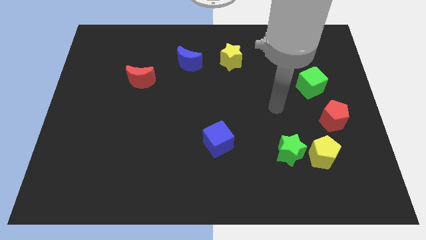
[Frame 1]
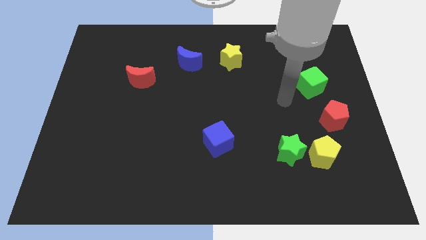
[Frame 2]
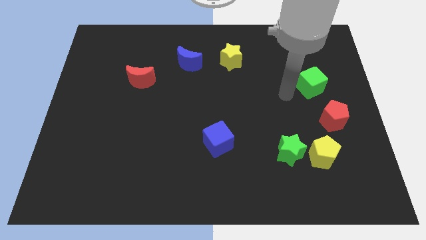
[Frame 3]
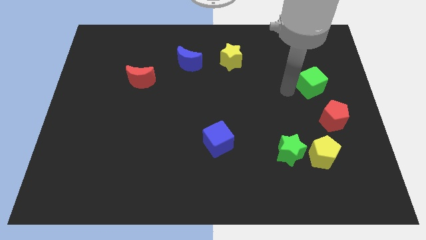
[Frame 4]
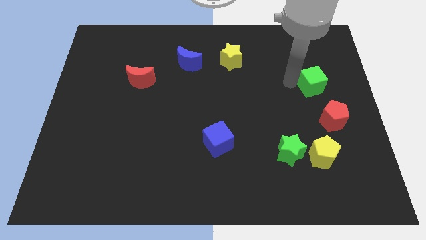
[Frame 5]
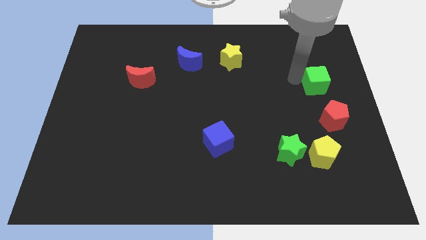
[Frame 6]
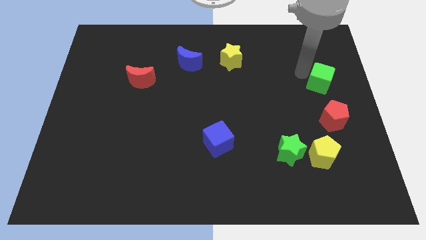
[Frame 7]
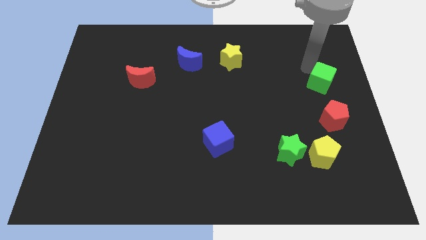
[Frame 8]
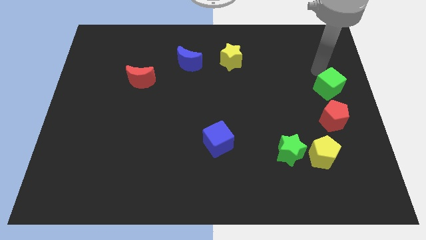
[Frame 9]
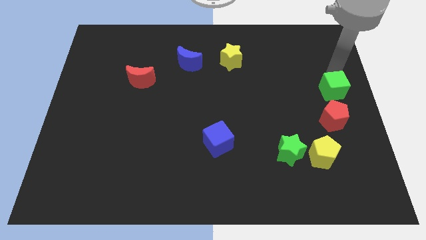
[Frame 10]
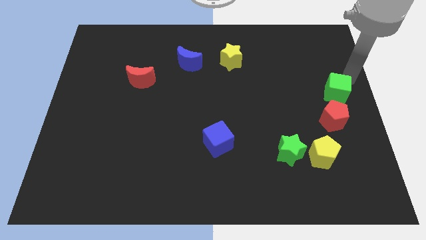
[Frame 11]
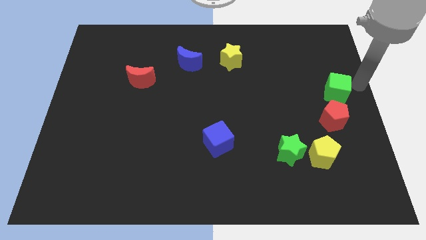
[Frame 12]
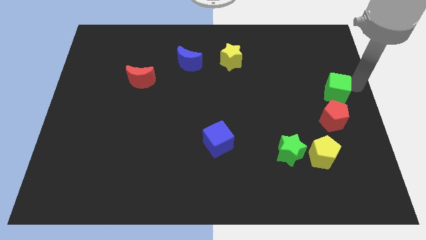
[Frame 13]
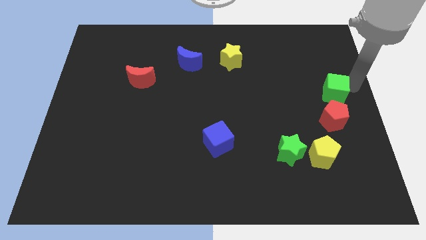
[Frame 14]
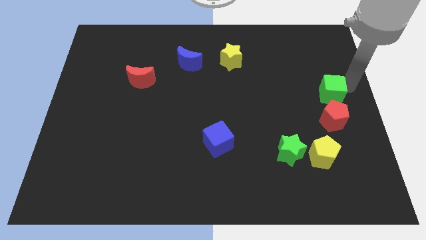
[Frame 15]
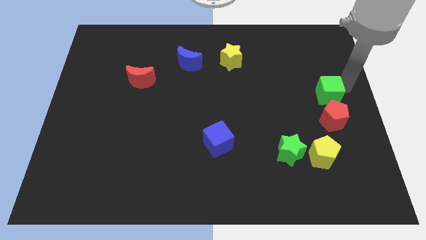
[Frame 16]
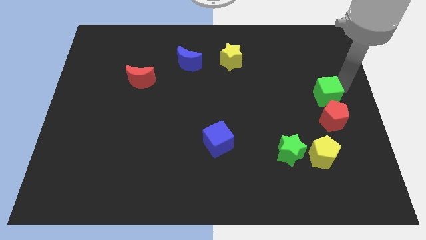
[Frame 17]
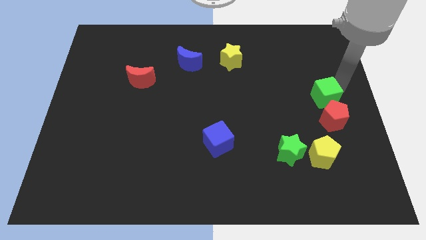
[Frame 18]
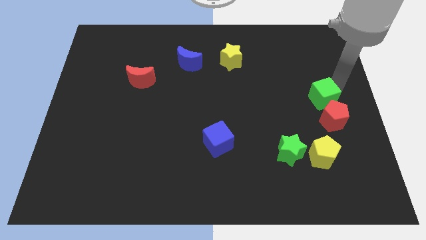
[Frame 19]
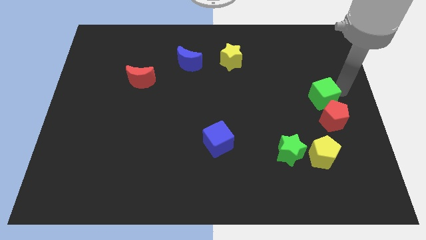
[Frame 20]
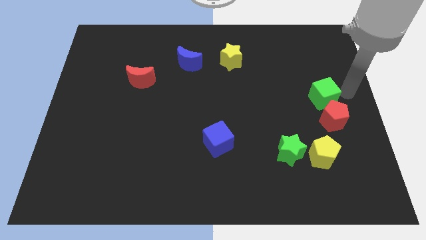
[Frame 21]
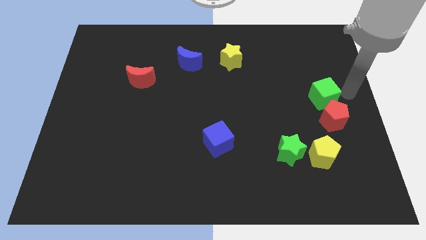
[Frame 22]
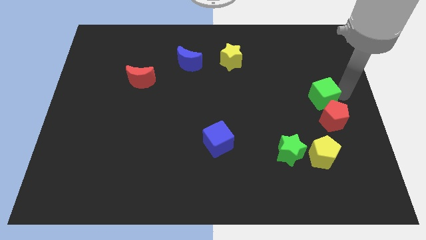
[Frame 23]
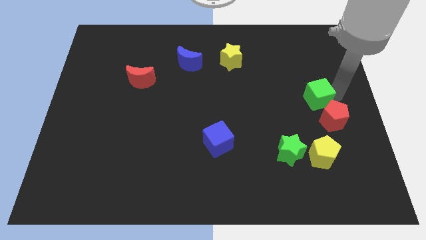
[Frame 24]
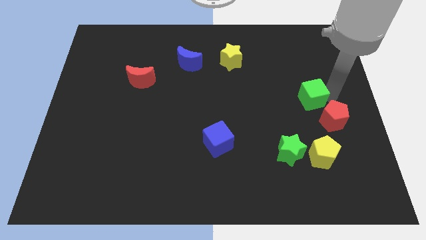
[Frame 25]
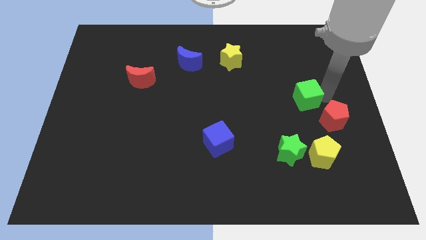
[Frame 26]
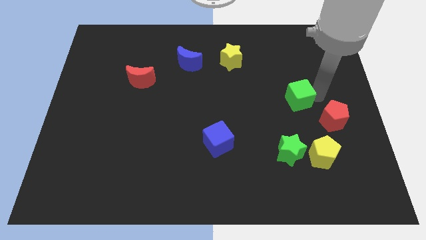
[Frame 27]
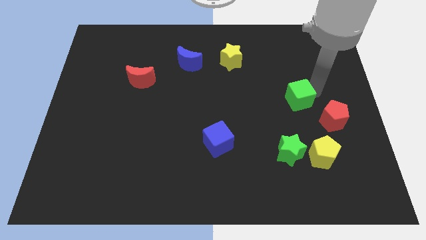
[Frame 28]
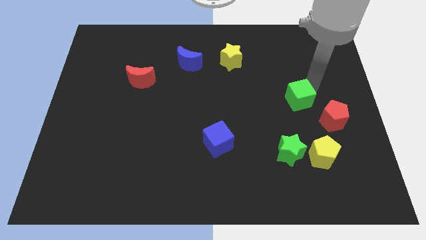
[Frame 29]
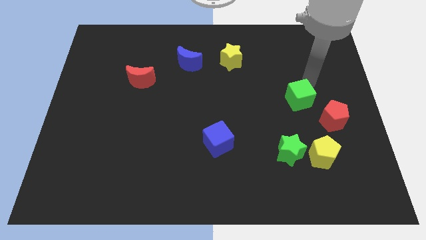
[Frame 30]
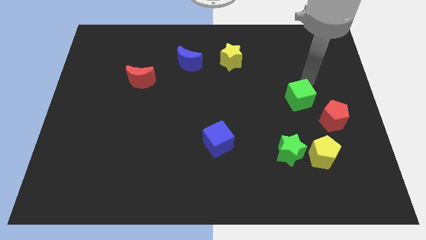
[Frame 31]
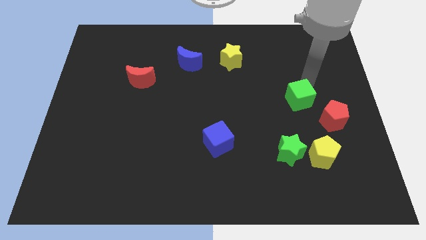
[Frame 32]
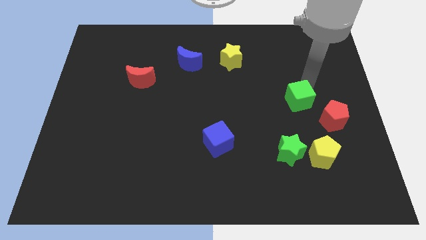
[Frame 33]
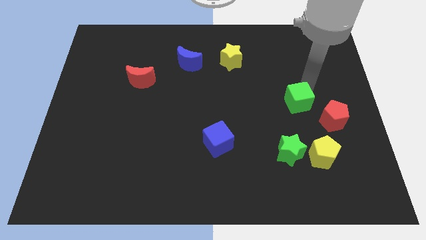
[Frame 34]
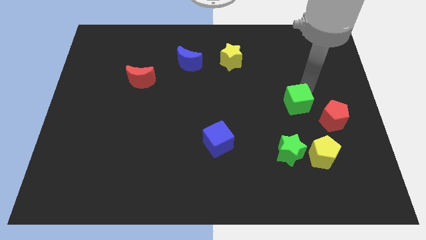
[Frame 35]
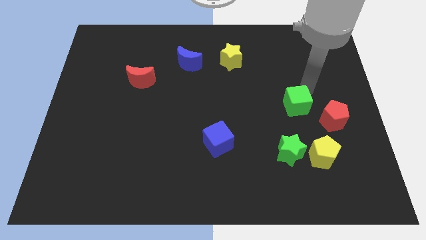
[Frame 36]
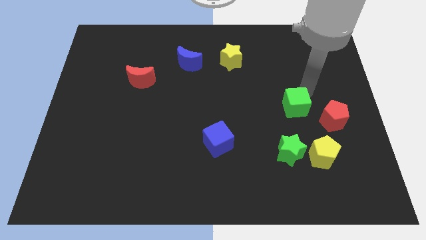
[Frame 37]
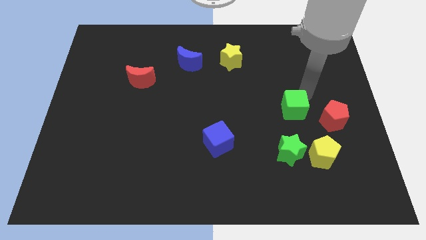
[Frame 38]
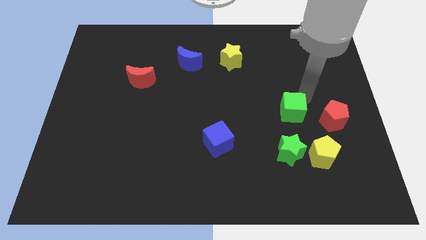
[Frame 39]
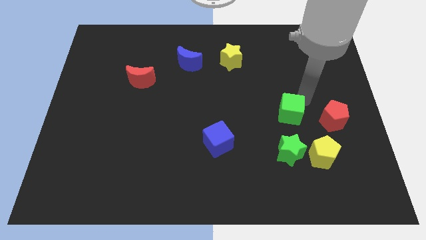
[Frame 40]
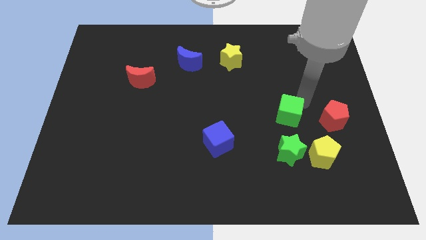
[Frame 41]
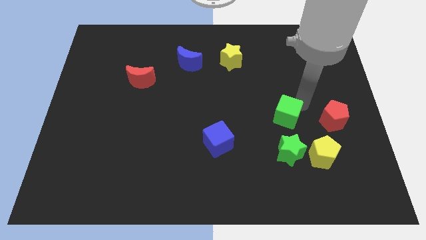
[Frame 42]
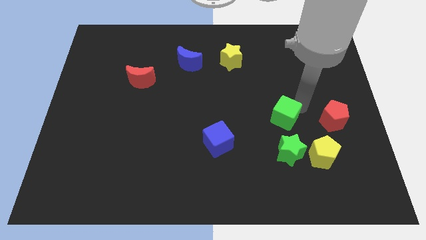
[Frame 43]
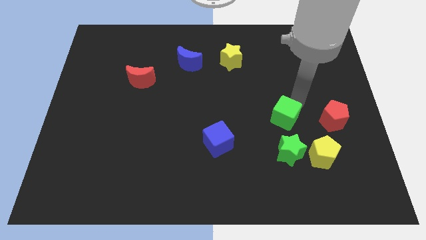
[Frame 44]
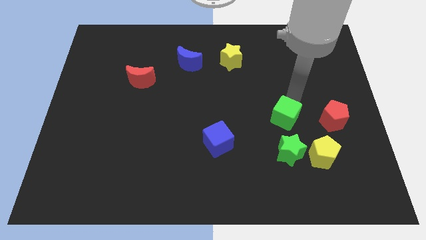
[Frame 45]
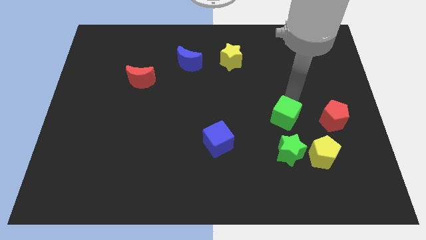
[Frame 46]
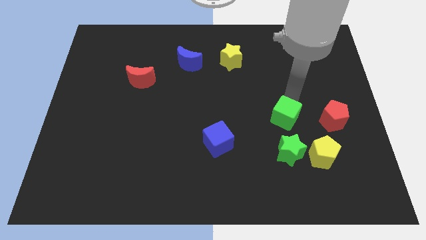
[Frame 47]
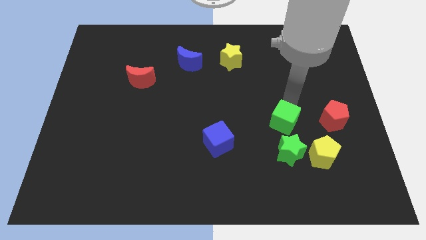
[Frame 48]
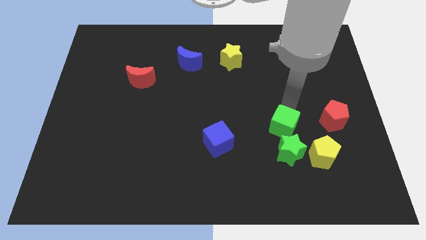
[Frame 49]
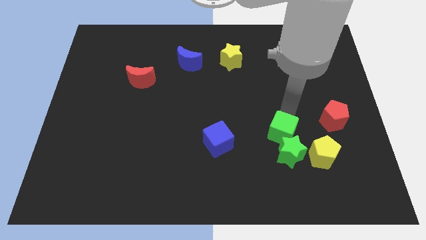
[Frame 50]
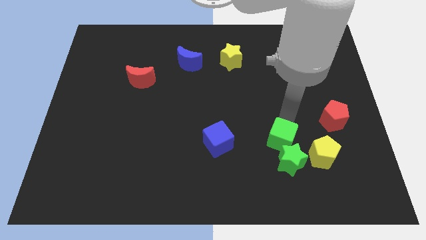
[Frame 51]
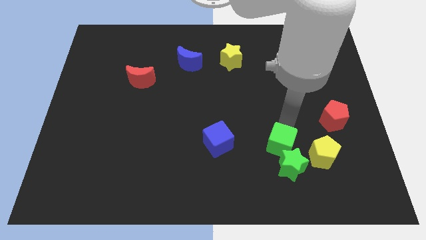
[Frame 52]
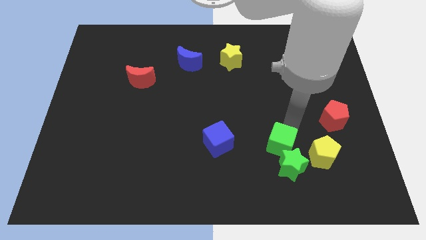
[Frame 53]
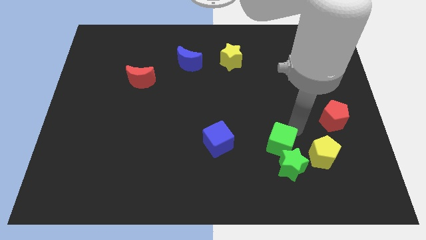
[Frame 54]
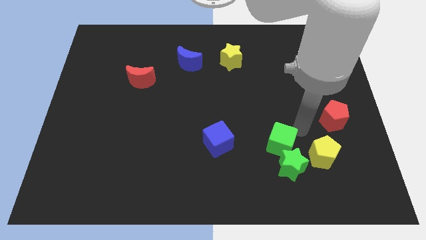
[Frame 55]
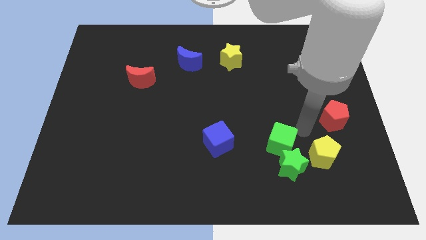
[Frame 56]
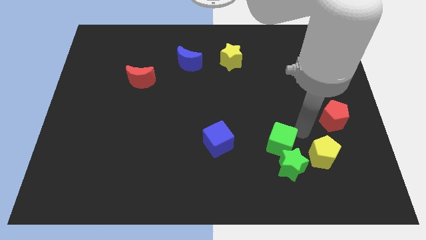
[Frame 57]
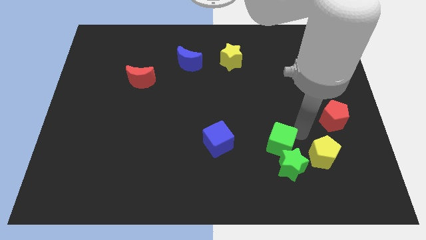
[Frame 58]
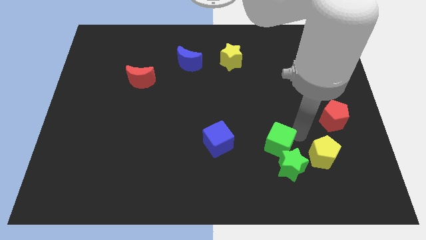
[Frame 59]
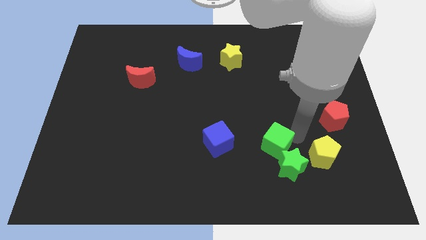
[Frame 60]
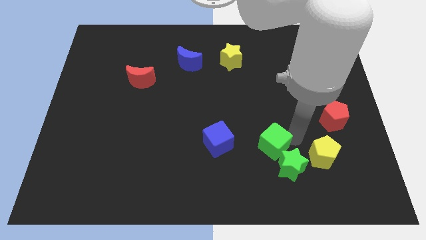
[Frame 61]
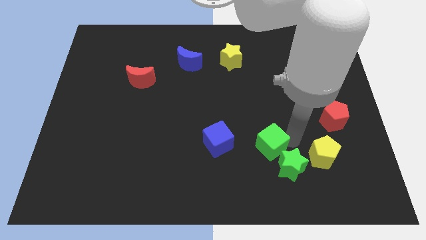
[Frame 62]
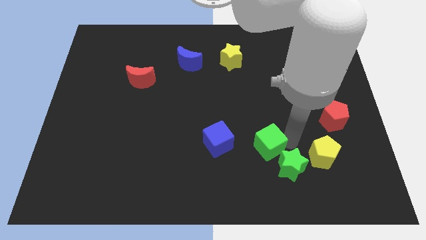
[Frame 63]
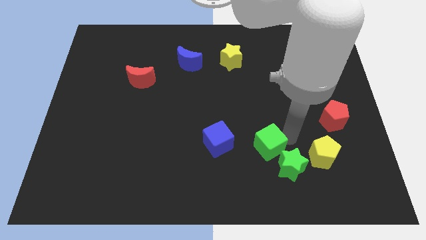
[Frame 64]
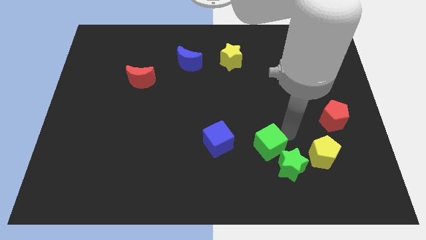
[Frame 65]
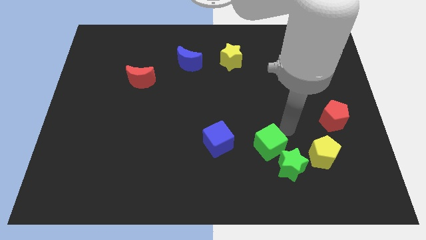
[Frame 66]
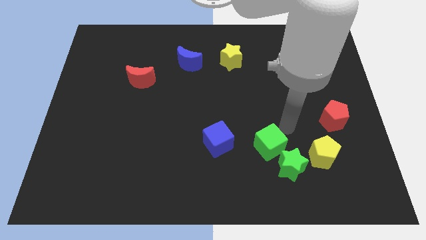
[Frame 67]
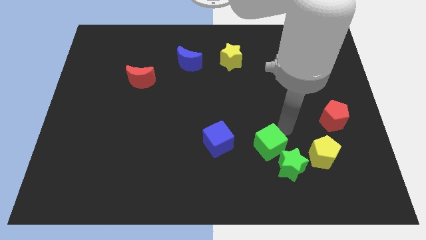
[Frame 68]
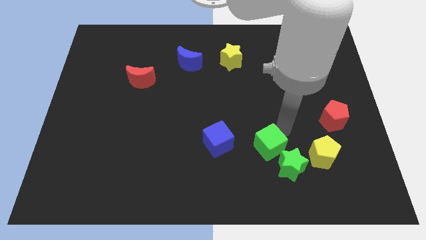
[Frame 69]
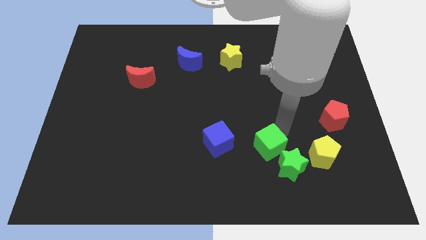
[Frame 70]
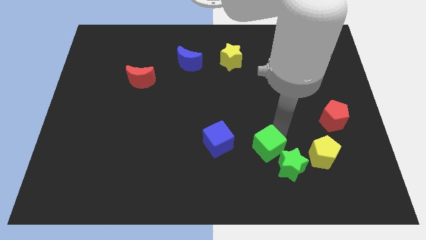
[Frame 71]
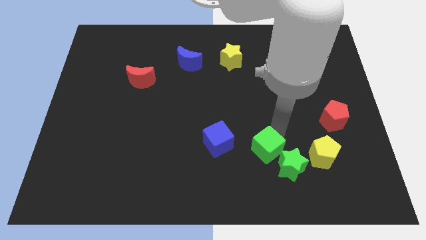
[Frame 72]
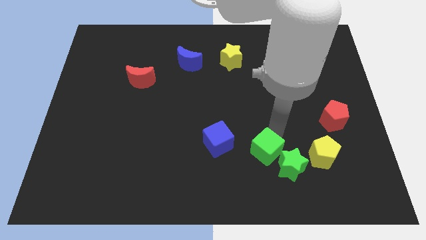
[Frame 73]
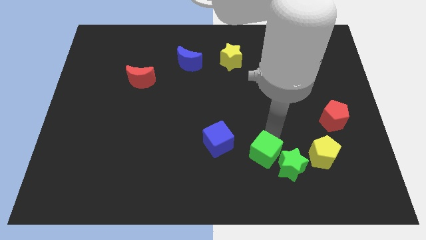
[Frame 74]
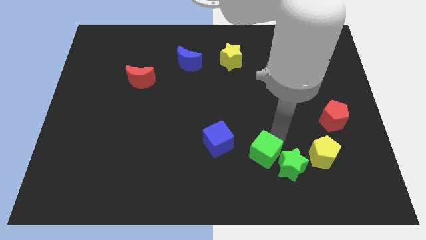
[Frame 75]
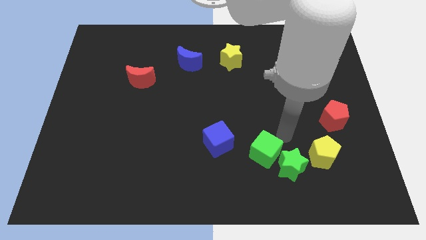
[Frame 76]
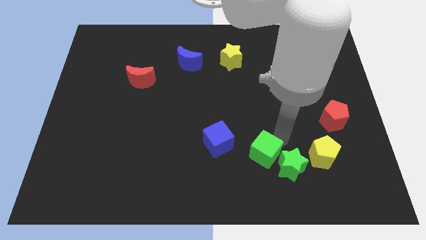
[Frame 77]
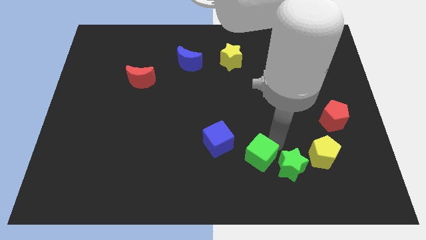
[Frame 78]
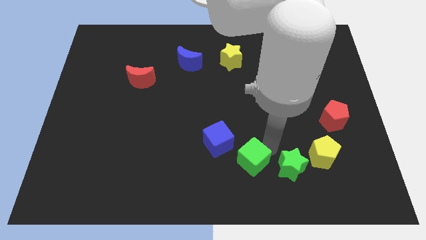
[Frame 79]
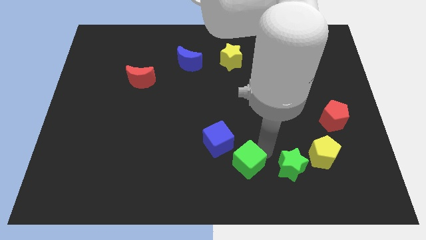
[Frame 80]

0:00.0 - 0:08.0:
put the green cube to the bottom side
